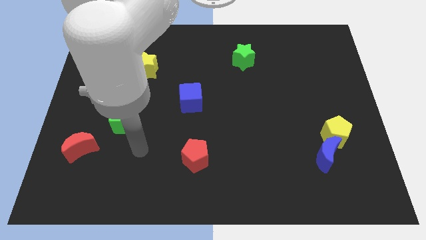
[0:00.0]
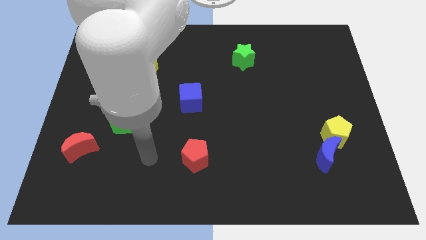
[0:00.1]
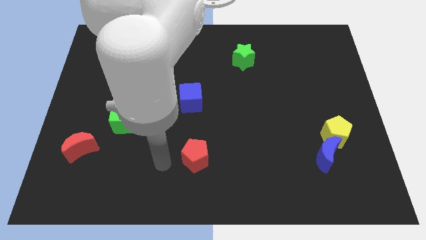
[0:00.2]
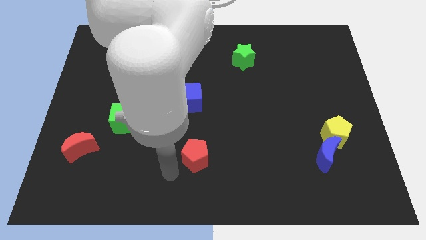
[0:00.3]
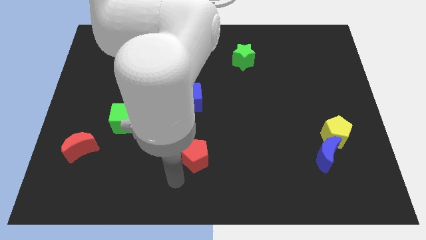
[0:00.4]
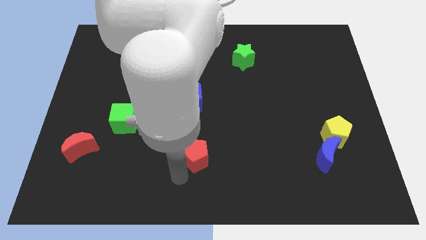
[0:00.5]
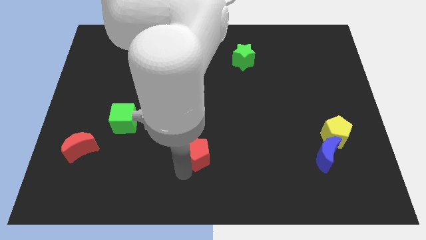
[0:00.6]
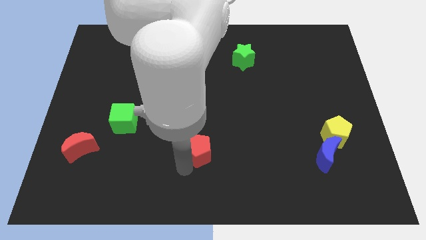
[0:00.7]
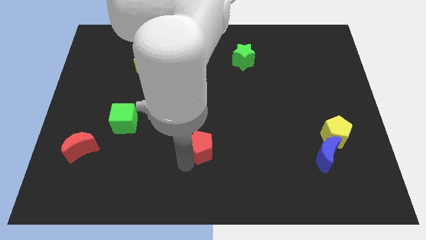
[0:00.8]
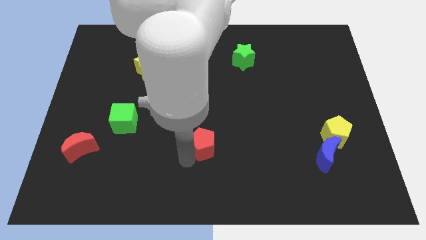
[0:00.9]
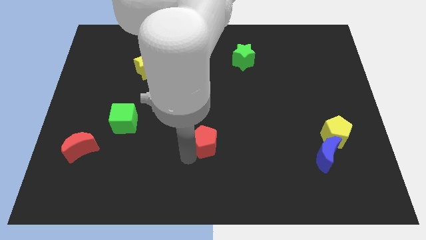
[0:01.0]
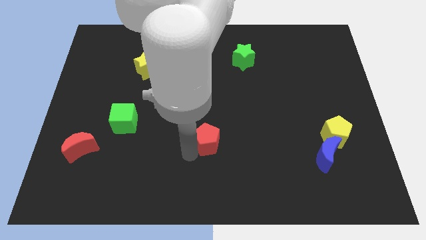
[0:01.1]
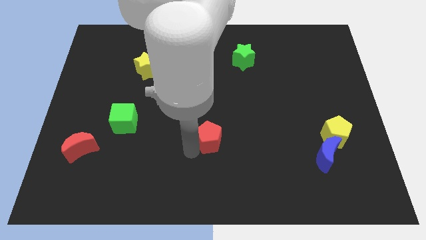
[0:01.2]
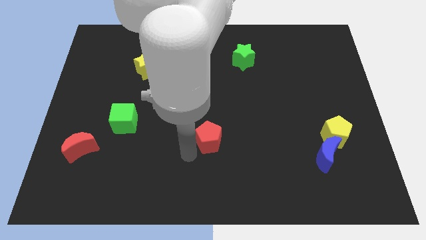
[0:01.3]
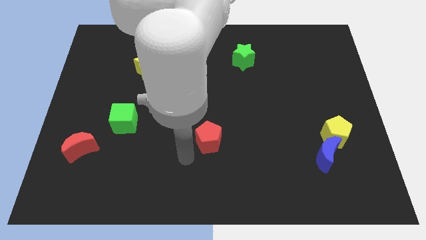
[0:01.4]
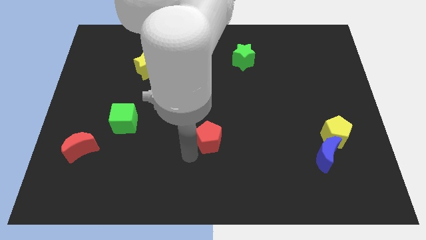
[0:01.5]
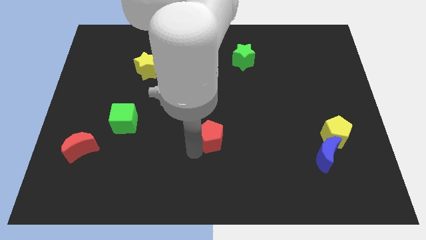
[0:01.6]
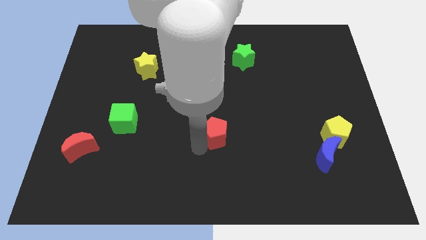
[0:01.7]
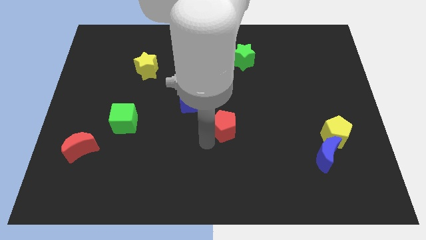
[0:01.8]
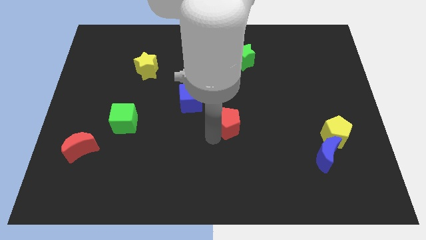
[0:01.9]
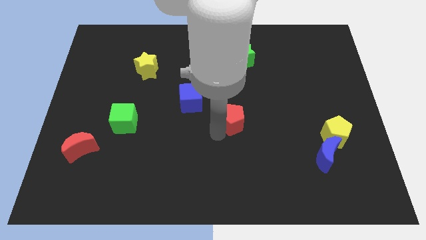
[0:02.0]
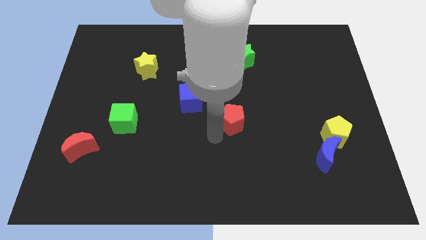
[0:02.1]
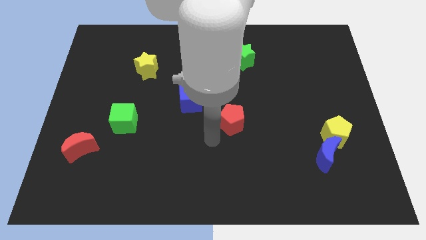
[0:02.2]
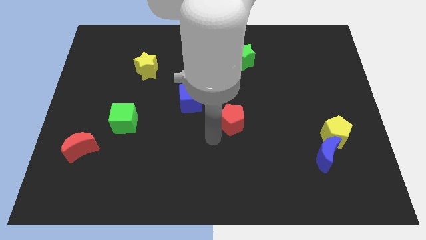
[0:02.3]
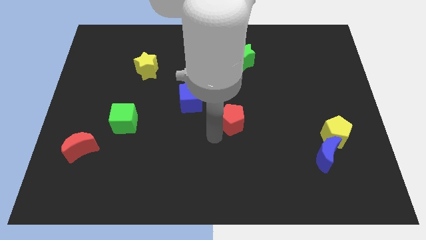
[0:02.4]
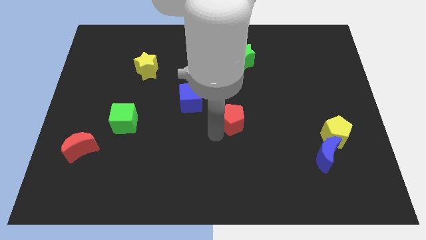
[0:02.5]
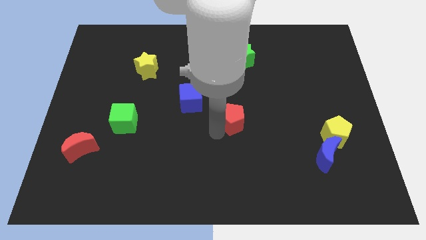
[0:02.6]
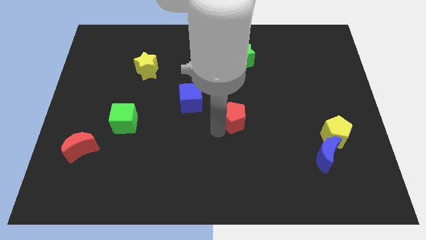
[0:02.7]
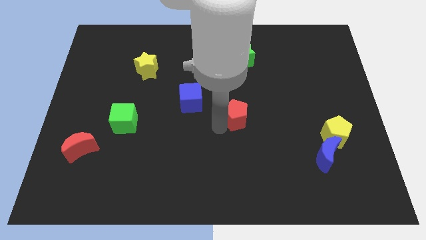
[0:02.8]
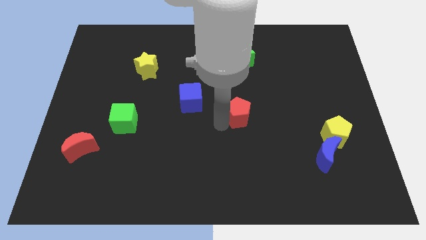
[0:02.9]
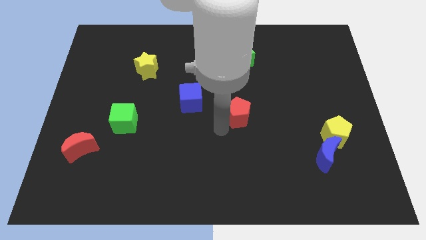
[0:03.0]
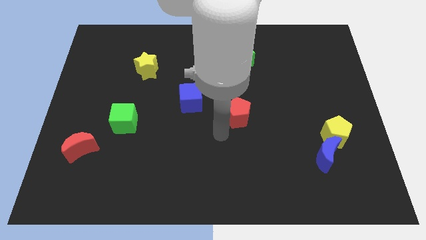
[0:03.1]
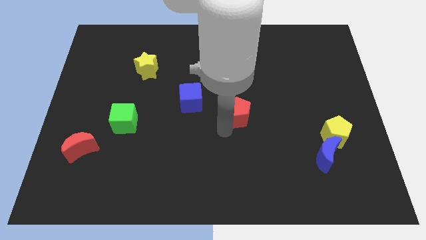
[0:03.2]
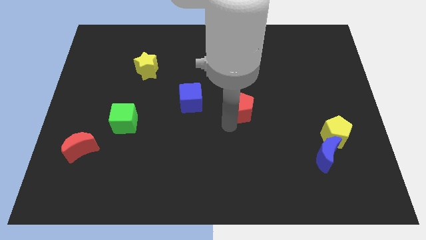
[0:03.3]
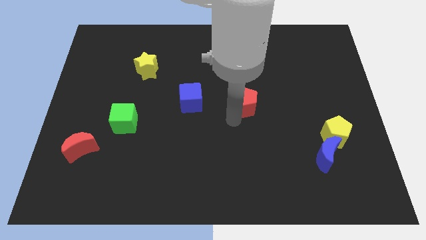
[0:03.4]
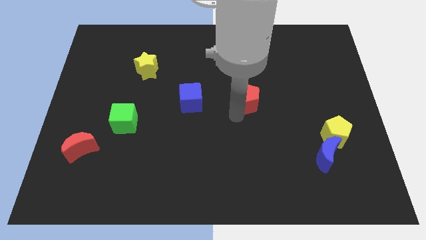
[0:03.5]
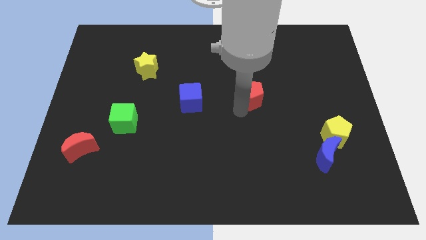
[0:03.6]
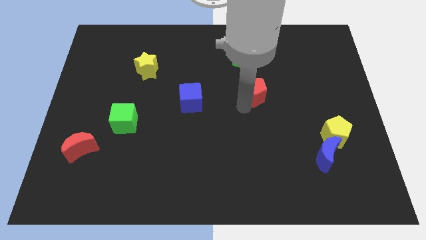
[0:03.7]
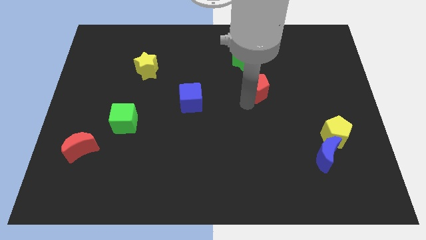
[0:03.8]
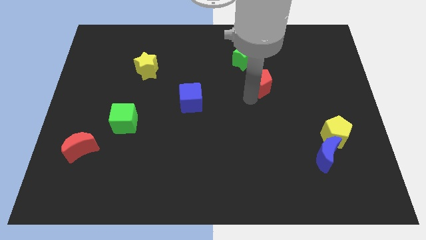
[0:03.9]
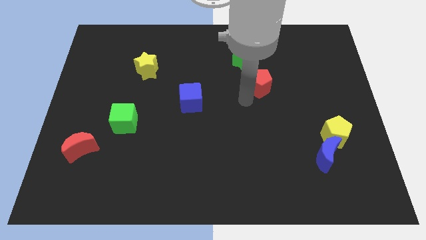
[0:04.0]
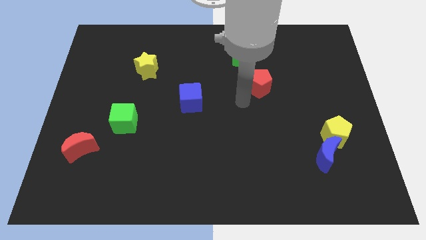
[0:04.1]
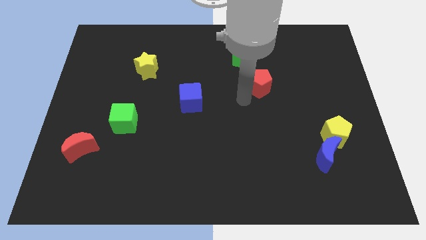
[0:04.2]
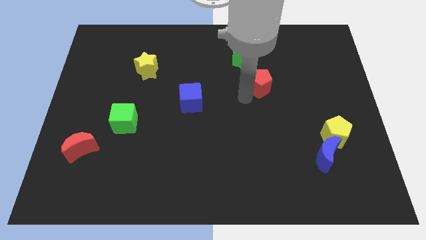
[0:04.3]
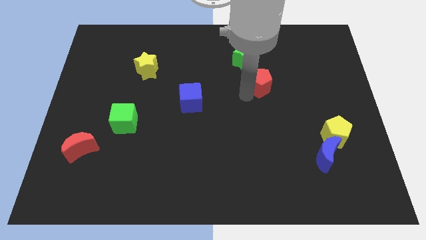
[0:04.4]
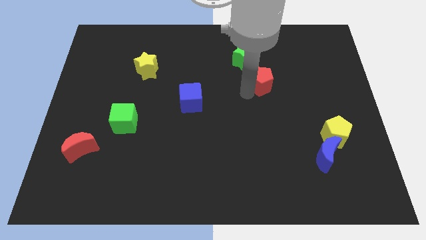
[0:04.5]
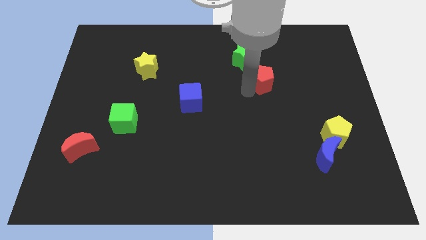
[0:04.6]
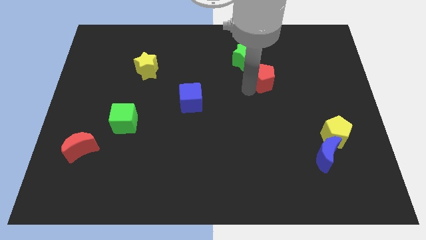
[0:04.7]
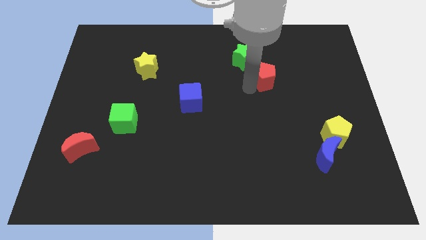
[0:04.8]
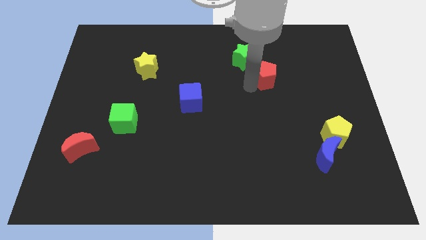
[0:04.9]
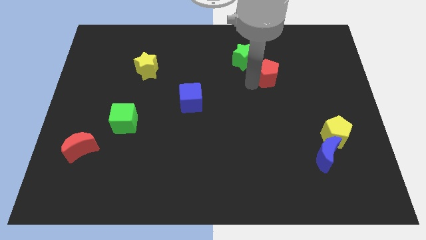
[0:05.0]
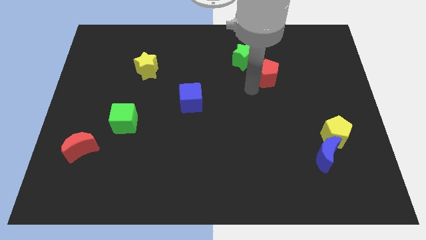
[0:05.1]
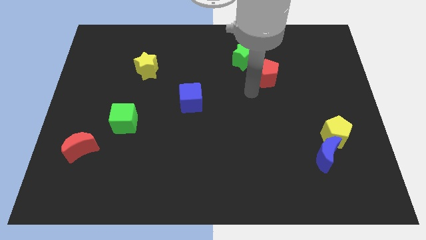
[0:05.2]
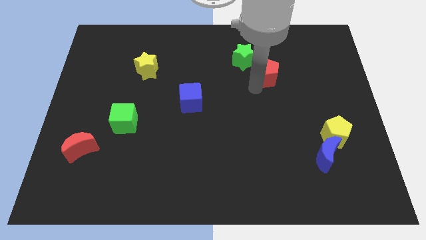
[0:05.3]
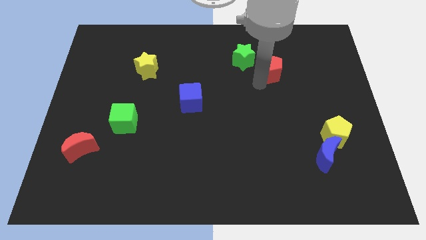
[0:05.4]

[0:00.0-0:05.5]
push the red pentagon to the right of the green star

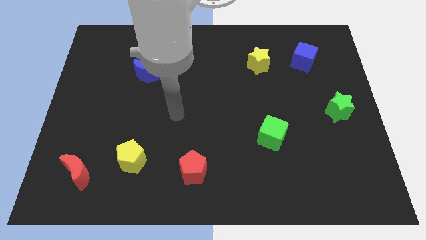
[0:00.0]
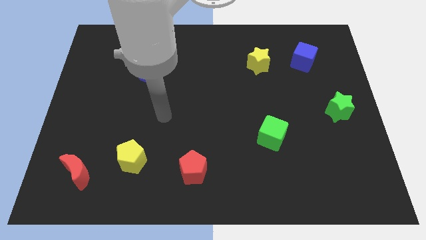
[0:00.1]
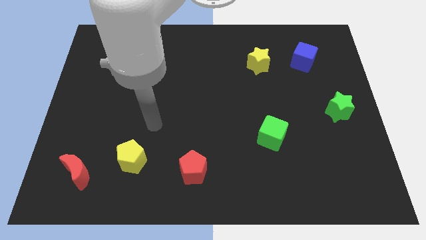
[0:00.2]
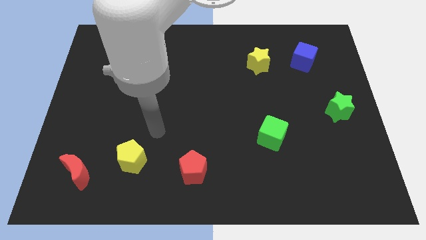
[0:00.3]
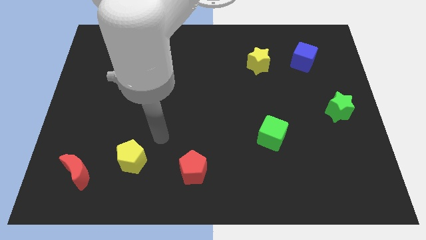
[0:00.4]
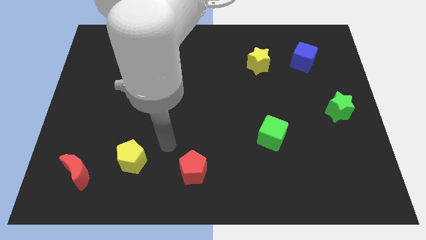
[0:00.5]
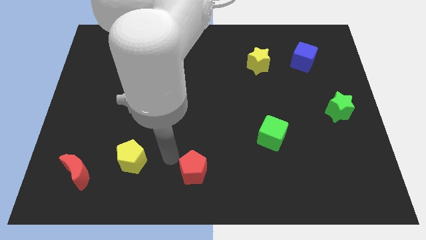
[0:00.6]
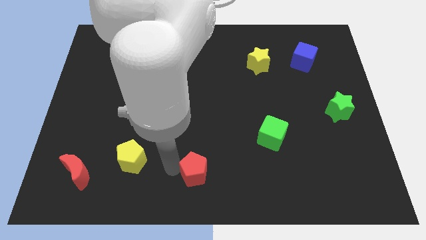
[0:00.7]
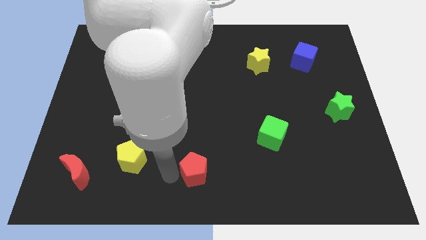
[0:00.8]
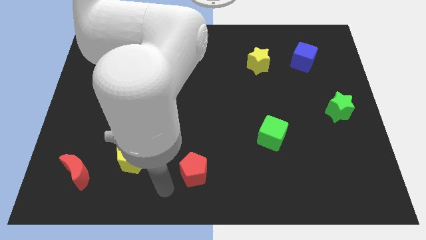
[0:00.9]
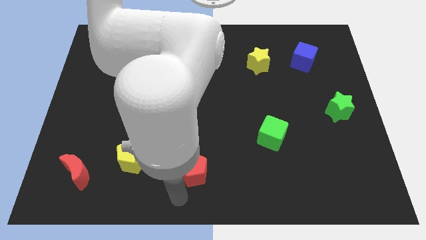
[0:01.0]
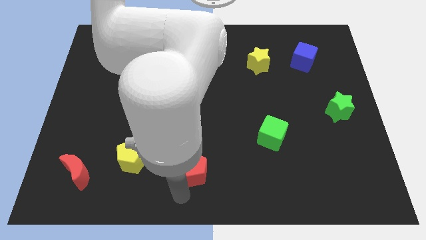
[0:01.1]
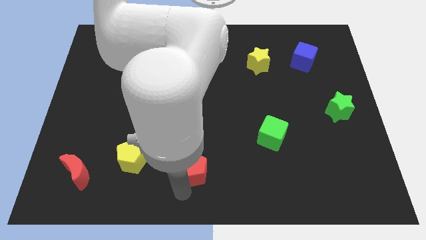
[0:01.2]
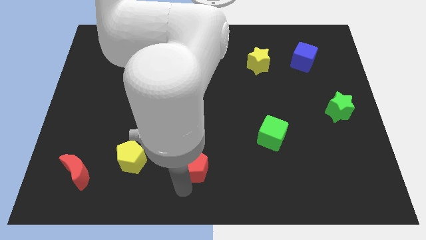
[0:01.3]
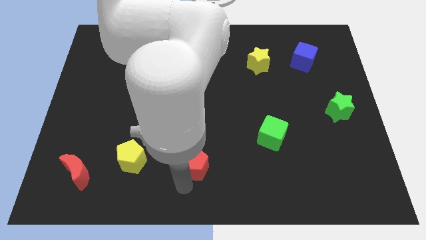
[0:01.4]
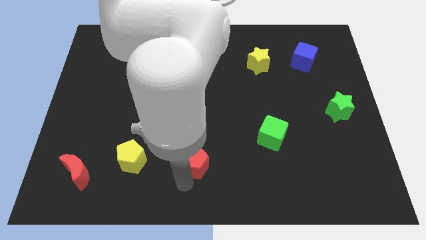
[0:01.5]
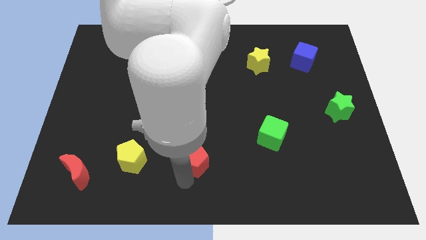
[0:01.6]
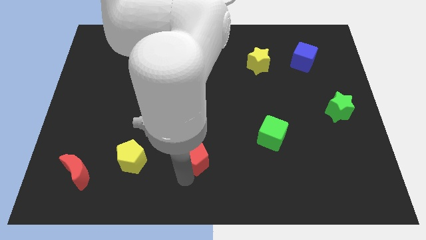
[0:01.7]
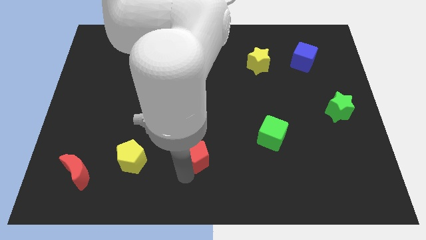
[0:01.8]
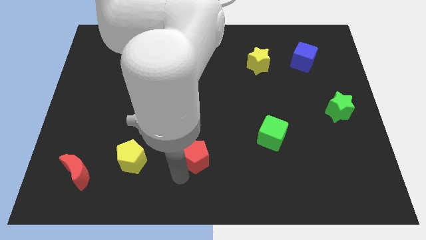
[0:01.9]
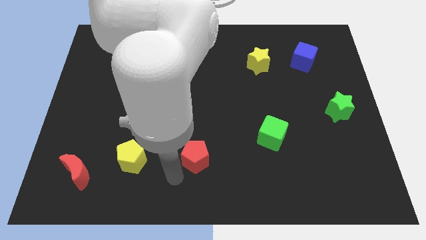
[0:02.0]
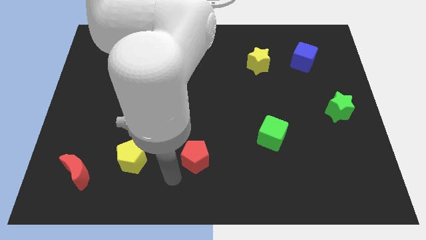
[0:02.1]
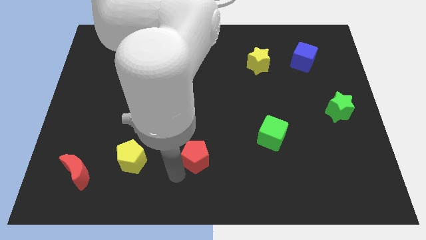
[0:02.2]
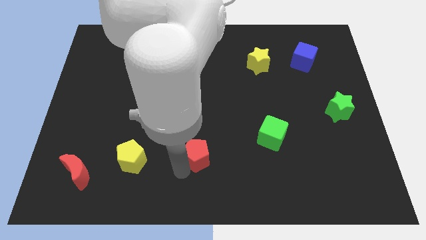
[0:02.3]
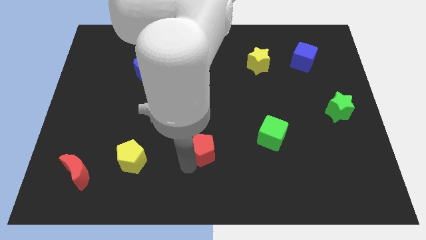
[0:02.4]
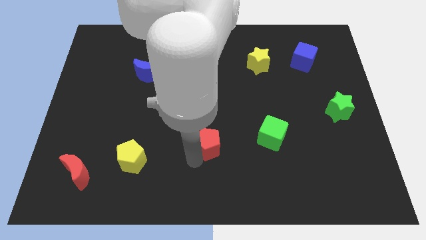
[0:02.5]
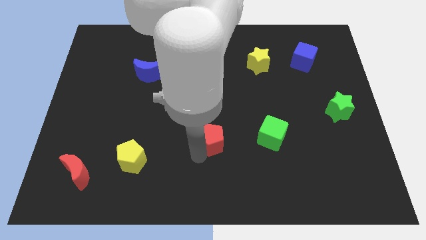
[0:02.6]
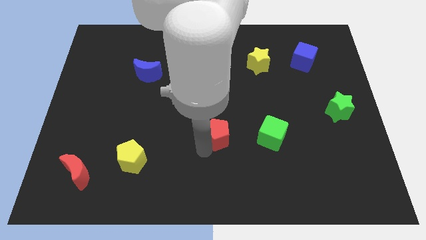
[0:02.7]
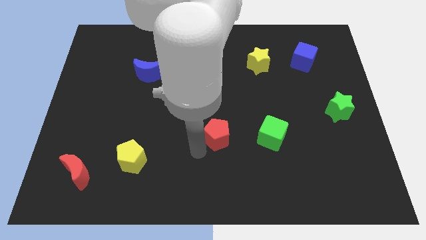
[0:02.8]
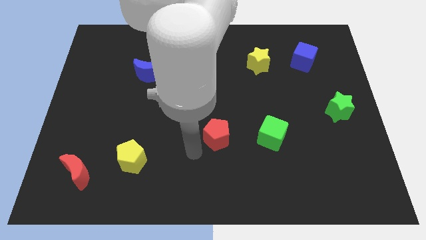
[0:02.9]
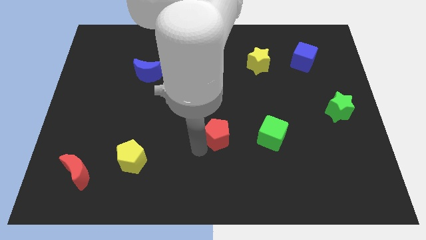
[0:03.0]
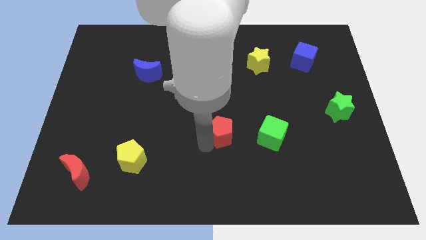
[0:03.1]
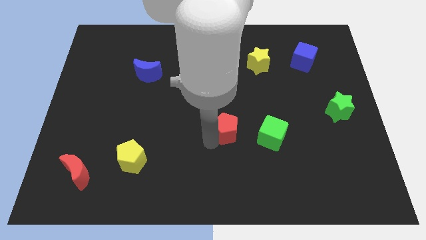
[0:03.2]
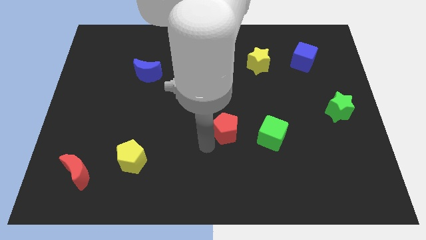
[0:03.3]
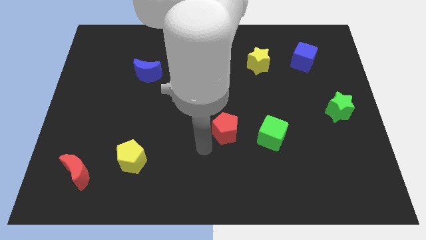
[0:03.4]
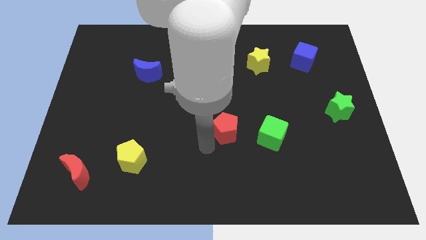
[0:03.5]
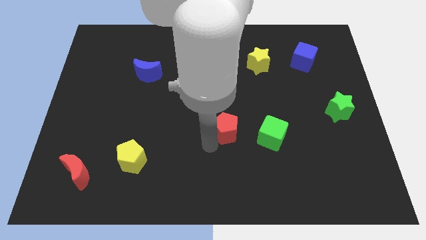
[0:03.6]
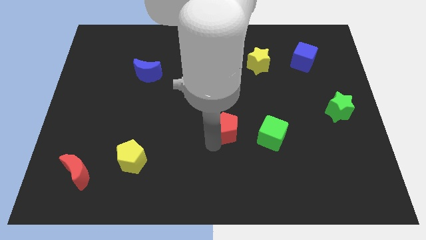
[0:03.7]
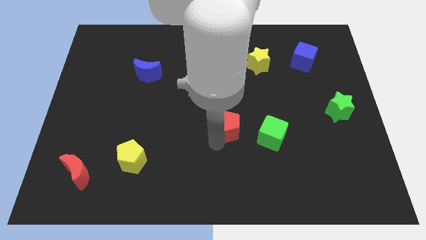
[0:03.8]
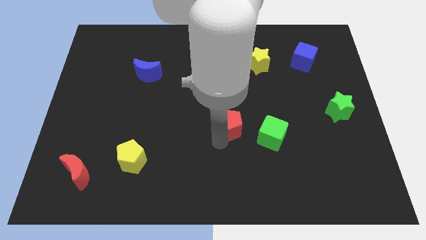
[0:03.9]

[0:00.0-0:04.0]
put the red pentagon diagonally up and to the left of the green cube
